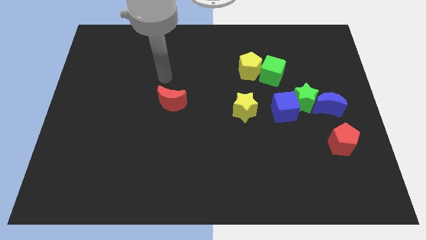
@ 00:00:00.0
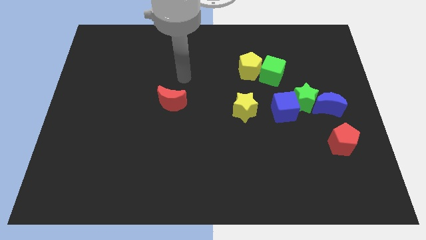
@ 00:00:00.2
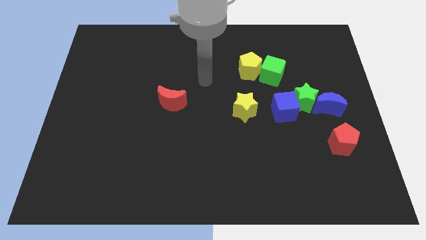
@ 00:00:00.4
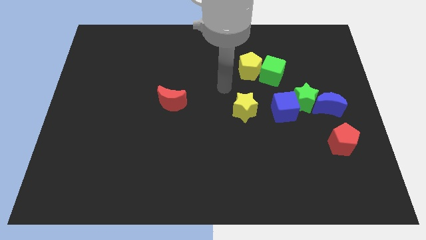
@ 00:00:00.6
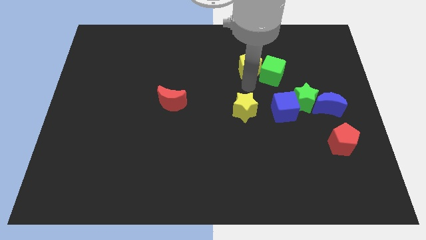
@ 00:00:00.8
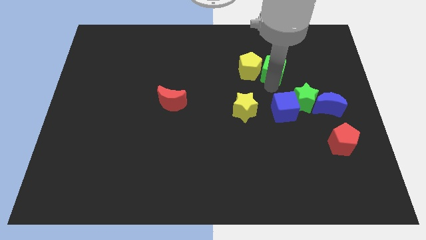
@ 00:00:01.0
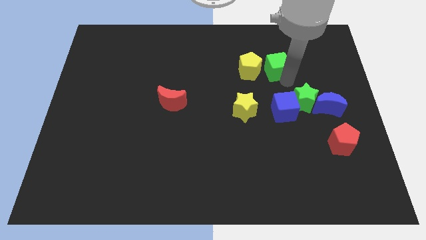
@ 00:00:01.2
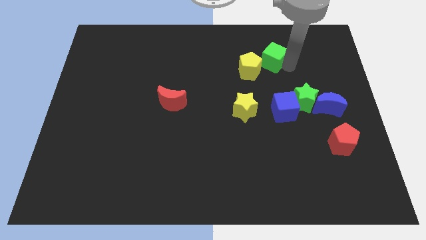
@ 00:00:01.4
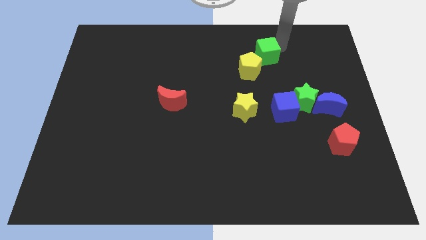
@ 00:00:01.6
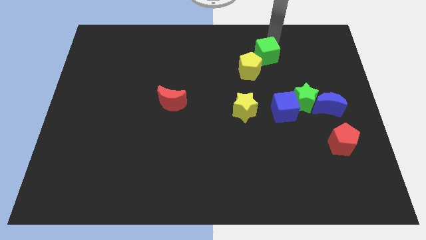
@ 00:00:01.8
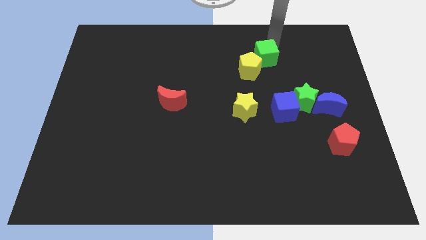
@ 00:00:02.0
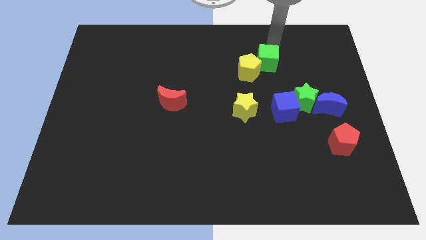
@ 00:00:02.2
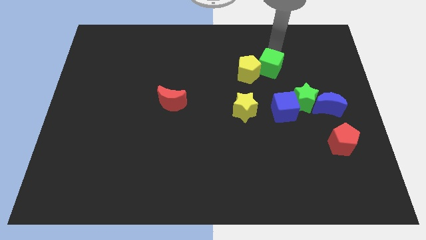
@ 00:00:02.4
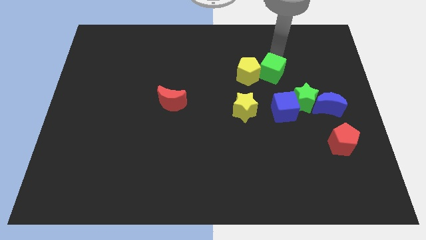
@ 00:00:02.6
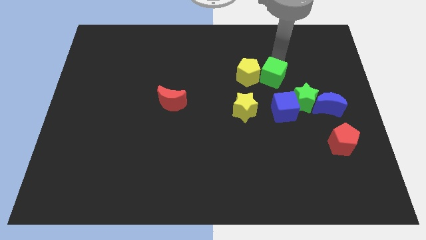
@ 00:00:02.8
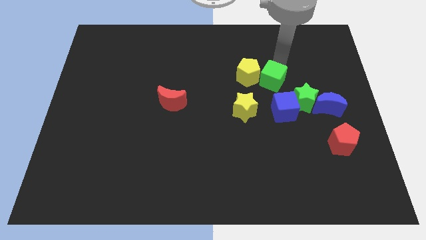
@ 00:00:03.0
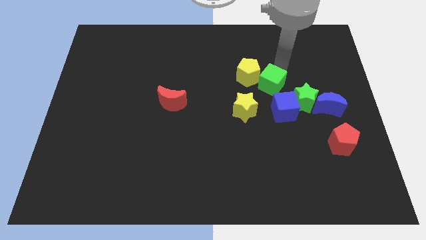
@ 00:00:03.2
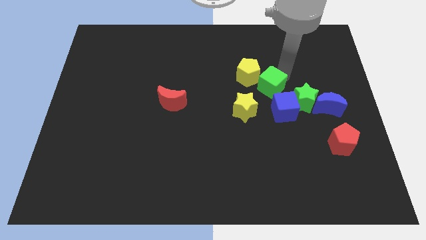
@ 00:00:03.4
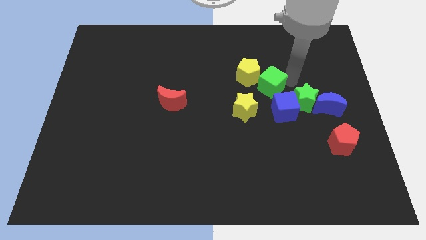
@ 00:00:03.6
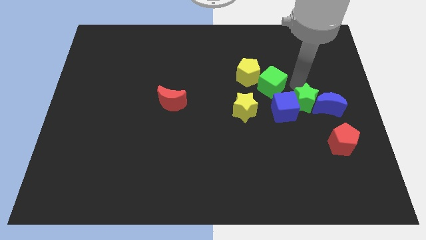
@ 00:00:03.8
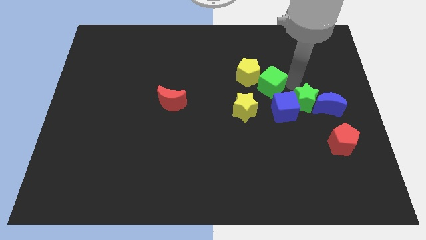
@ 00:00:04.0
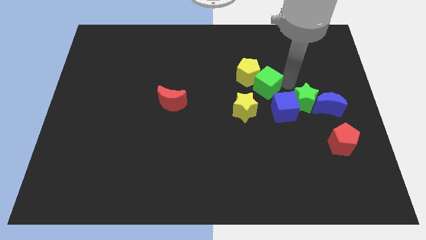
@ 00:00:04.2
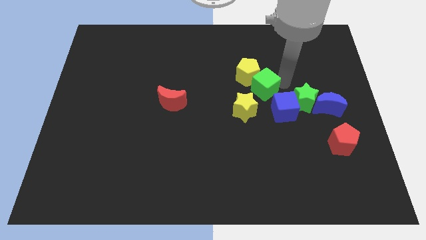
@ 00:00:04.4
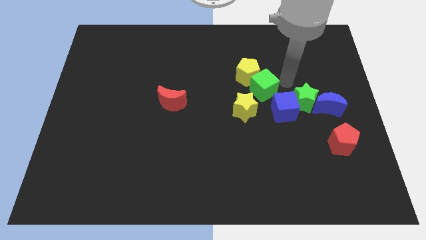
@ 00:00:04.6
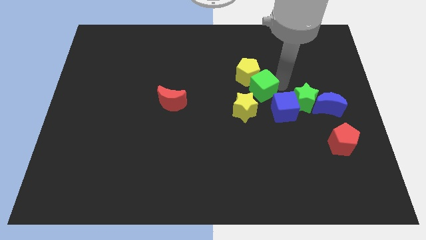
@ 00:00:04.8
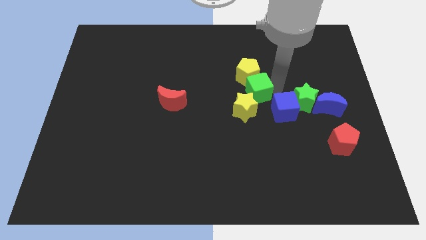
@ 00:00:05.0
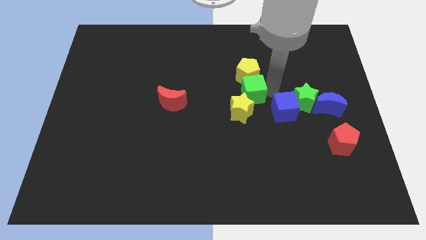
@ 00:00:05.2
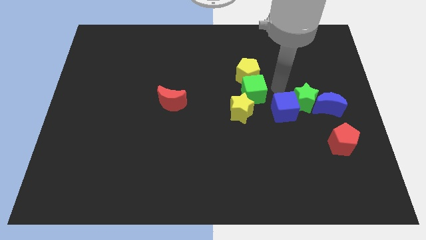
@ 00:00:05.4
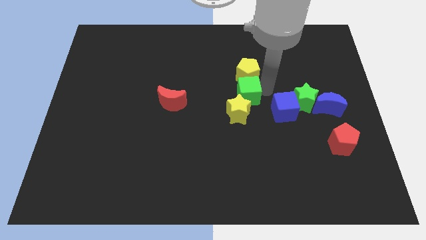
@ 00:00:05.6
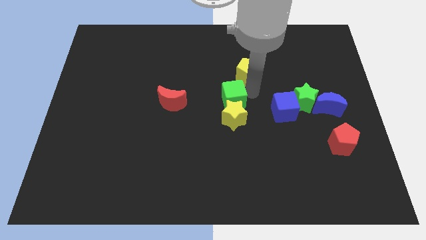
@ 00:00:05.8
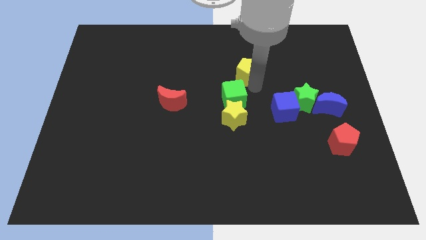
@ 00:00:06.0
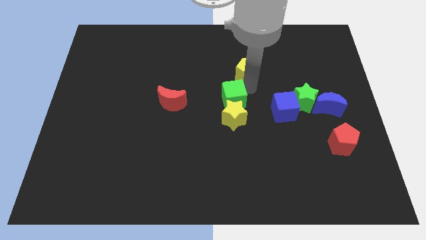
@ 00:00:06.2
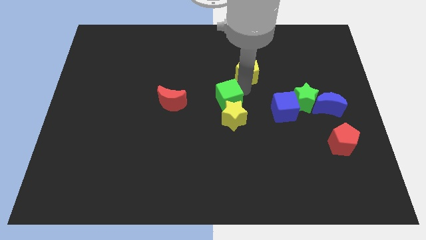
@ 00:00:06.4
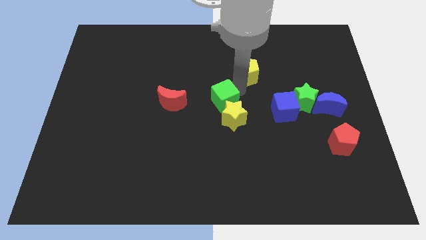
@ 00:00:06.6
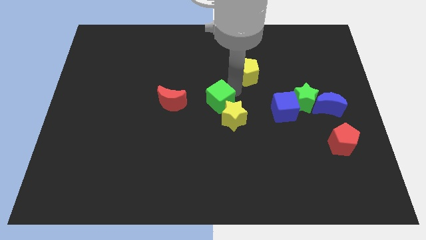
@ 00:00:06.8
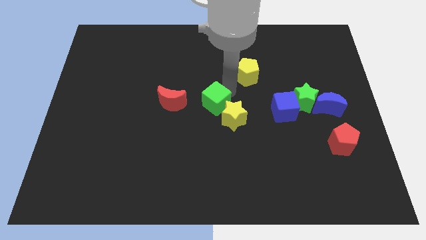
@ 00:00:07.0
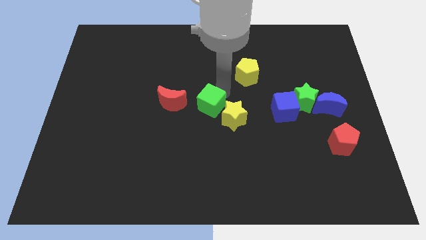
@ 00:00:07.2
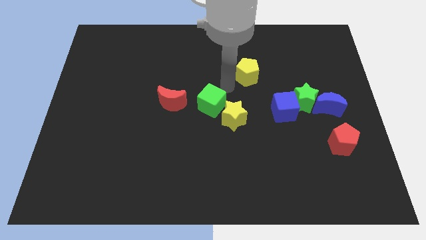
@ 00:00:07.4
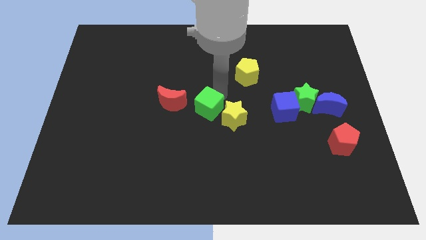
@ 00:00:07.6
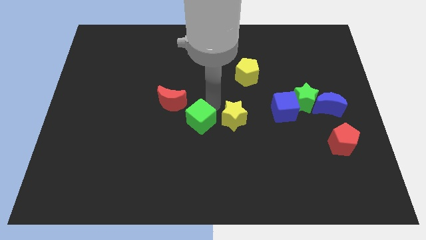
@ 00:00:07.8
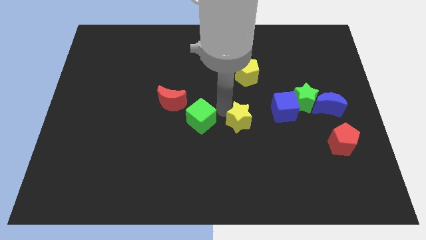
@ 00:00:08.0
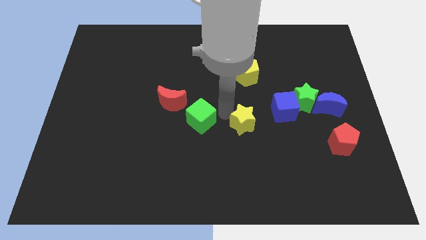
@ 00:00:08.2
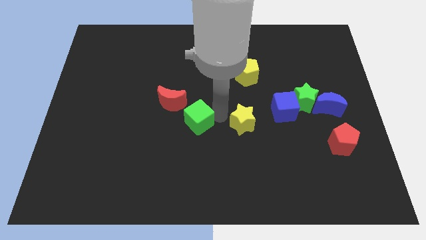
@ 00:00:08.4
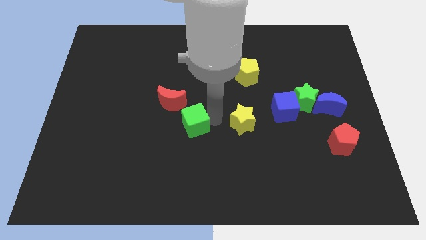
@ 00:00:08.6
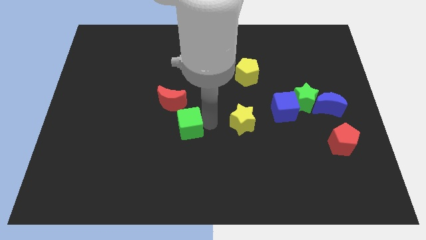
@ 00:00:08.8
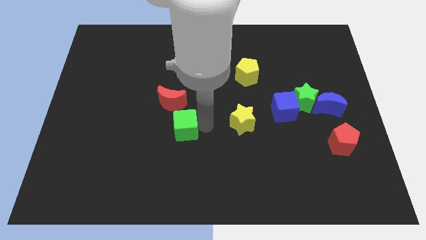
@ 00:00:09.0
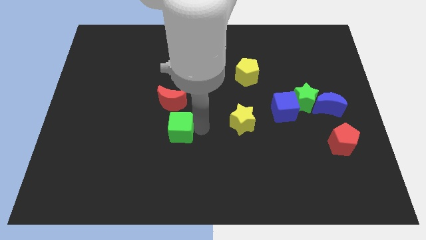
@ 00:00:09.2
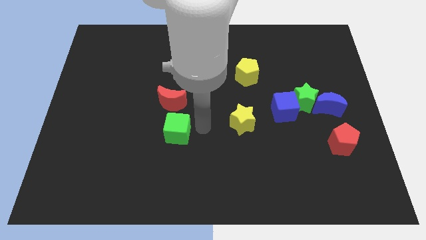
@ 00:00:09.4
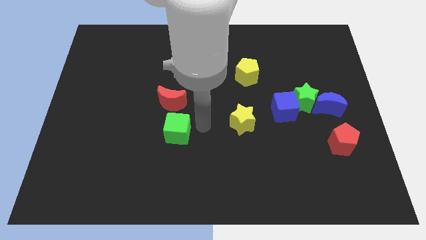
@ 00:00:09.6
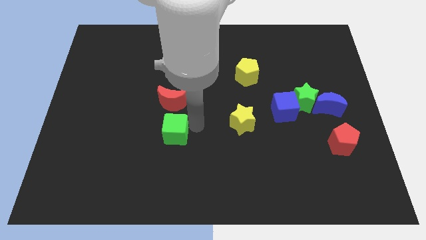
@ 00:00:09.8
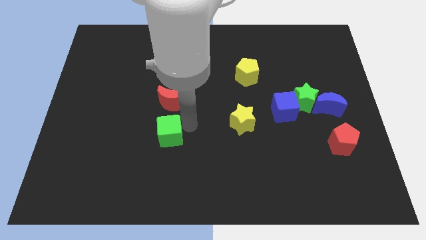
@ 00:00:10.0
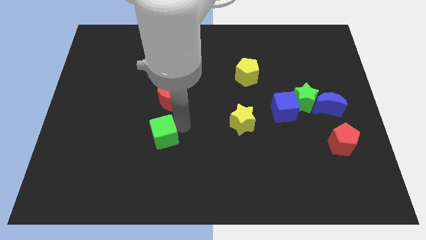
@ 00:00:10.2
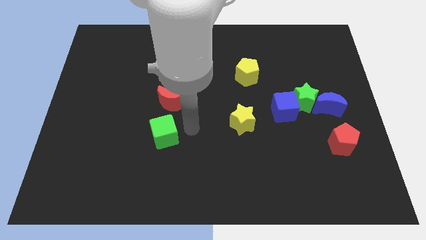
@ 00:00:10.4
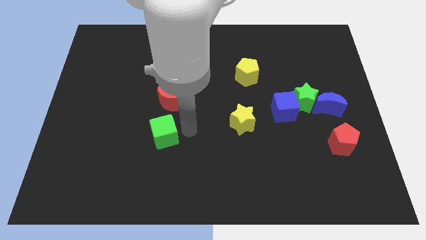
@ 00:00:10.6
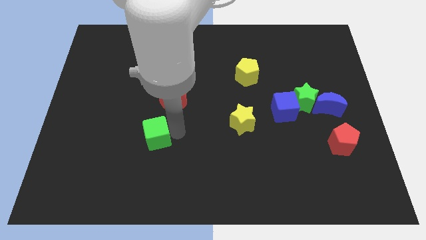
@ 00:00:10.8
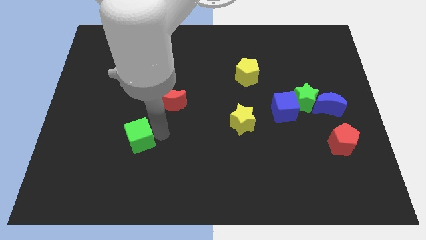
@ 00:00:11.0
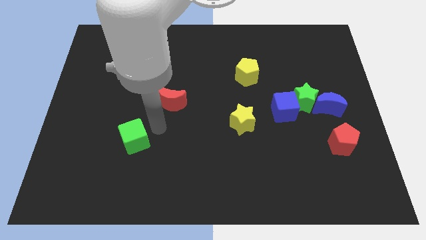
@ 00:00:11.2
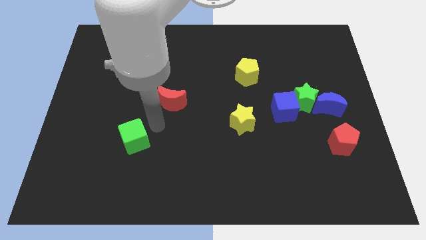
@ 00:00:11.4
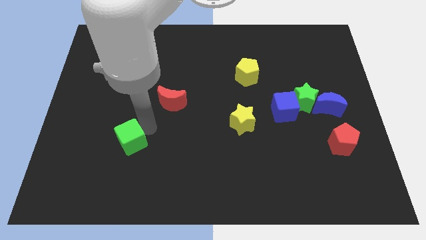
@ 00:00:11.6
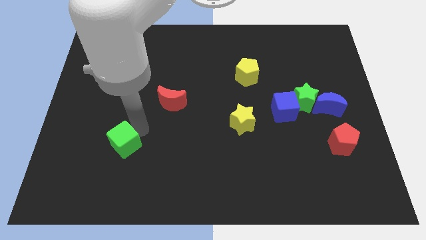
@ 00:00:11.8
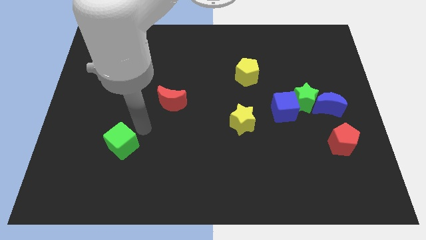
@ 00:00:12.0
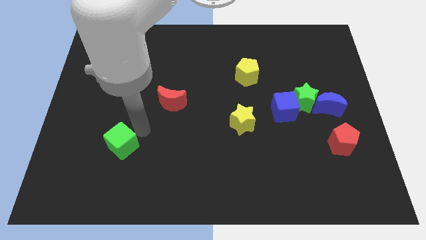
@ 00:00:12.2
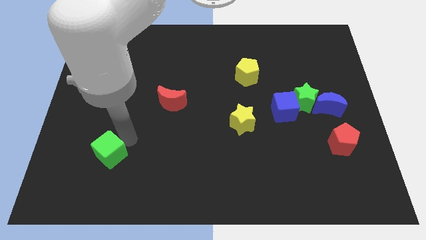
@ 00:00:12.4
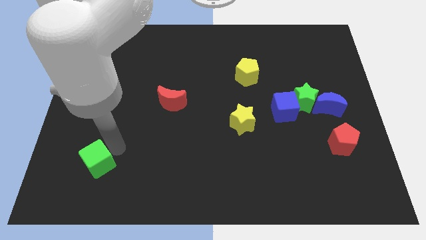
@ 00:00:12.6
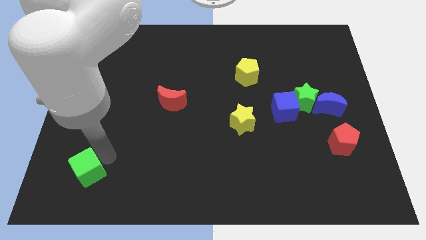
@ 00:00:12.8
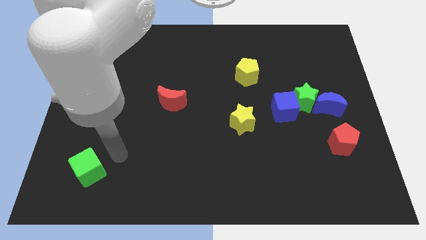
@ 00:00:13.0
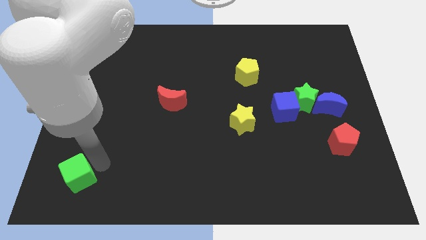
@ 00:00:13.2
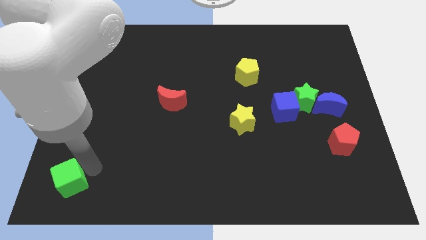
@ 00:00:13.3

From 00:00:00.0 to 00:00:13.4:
put the green cube to the bottom left

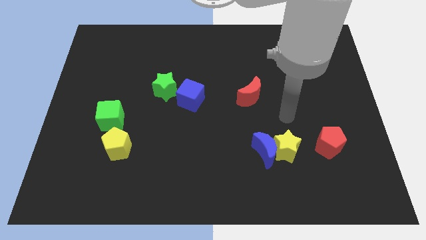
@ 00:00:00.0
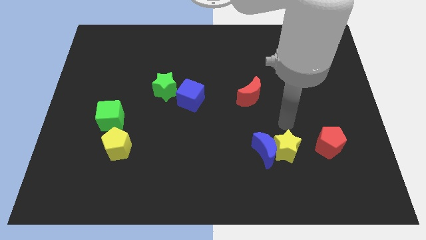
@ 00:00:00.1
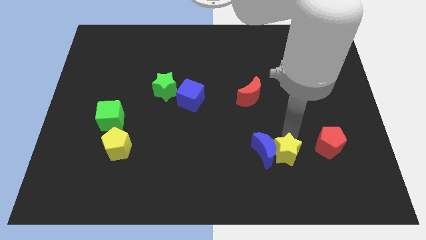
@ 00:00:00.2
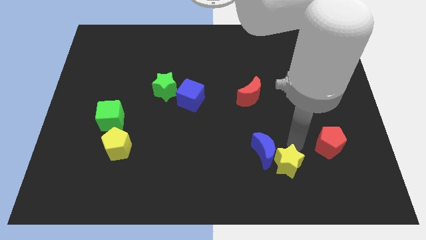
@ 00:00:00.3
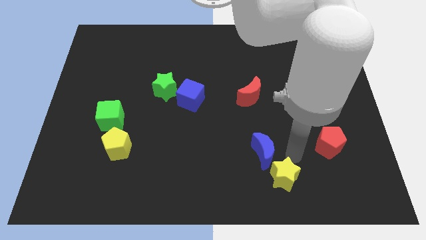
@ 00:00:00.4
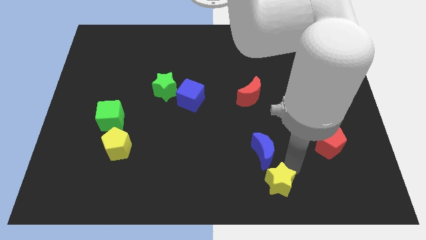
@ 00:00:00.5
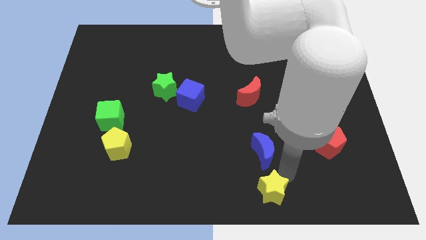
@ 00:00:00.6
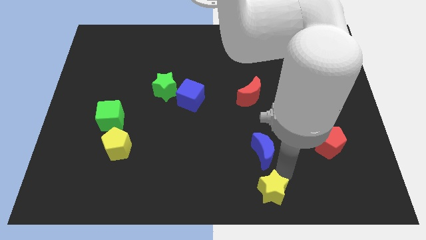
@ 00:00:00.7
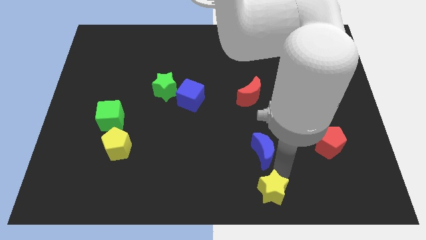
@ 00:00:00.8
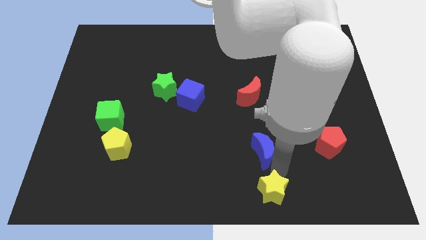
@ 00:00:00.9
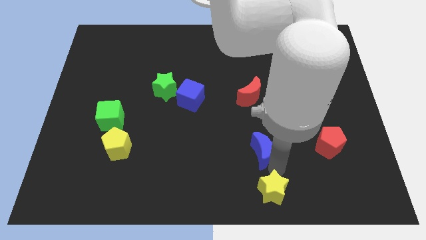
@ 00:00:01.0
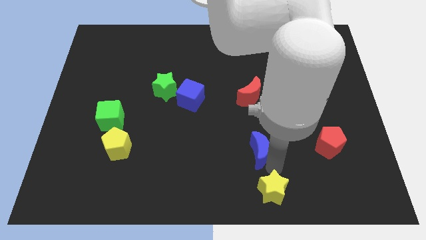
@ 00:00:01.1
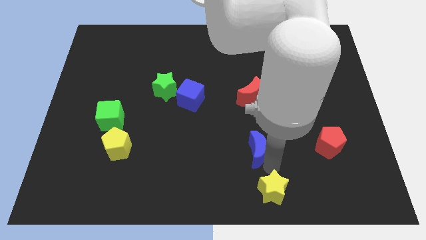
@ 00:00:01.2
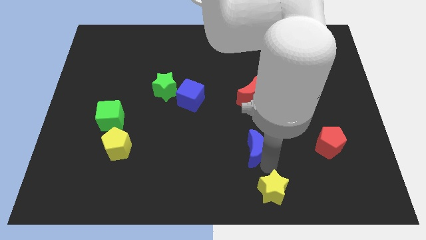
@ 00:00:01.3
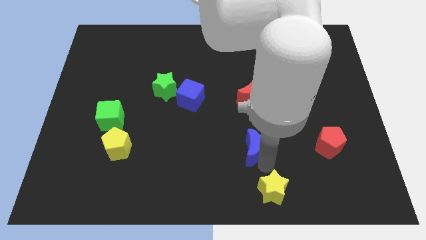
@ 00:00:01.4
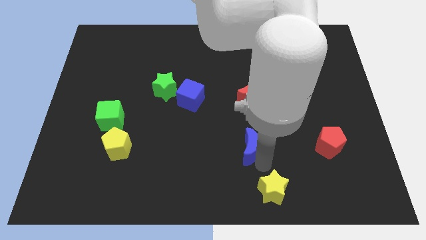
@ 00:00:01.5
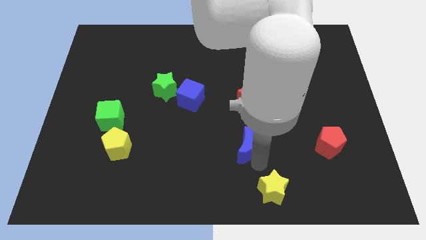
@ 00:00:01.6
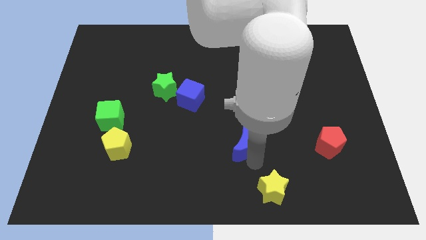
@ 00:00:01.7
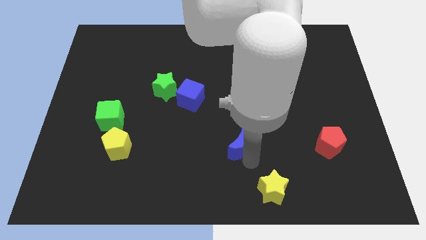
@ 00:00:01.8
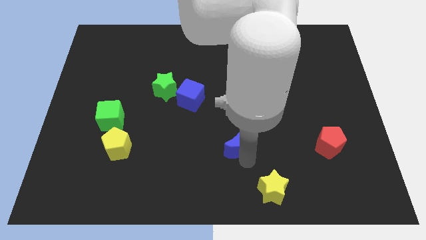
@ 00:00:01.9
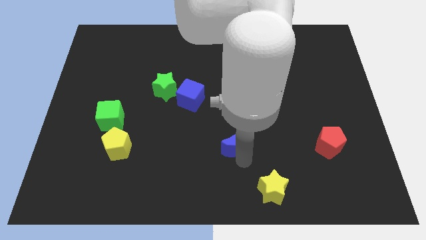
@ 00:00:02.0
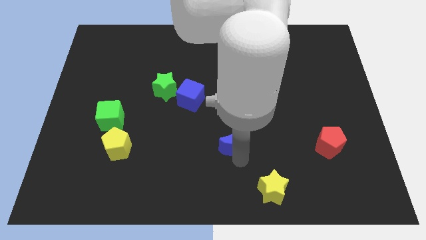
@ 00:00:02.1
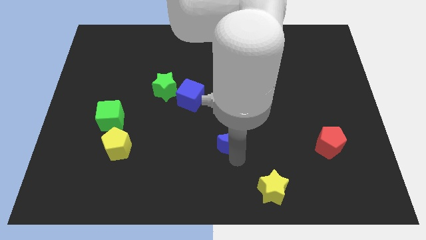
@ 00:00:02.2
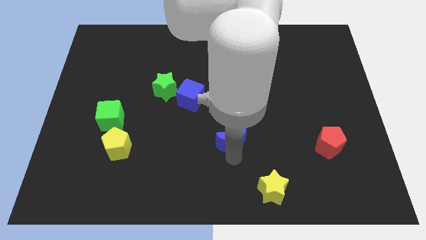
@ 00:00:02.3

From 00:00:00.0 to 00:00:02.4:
move the blue moon to the center
